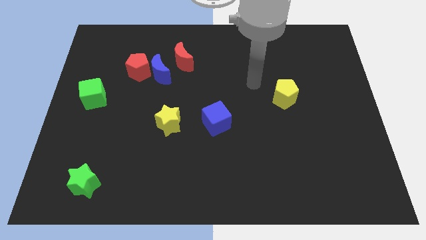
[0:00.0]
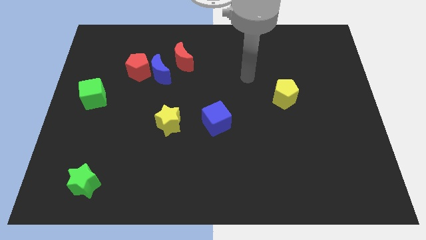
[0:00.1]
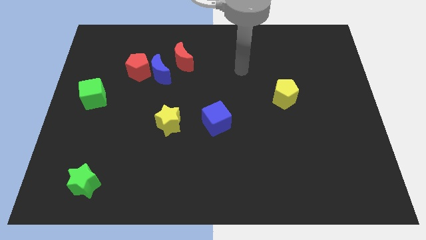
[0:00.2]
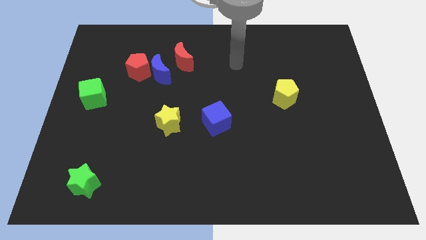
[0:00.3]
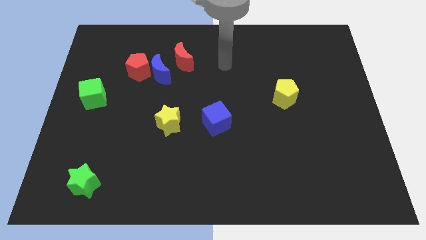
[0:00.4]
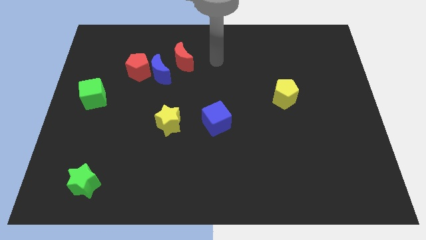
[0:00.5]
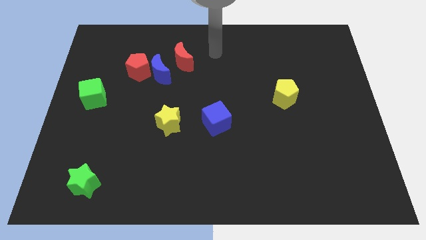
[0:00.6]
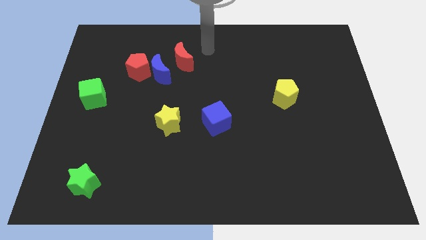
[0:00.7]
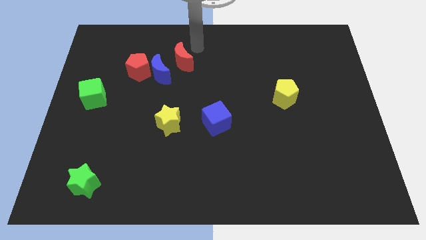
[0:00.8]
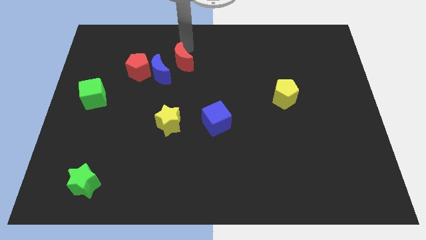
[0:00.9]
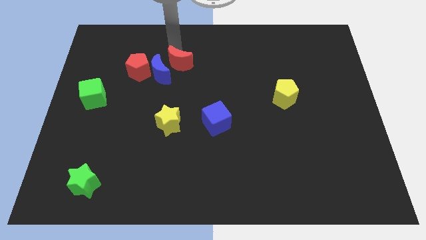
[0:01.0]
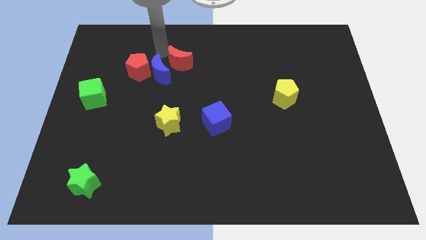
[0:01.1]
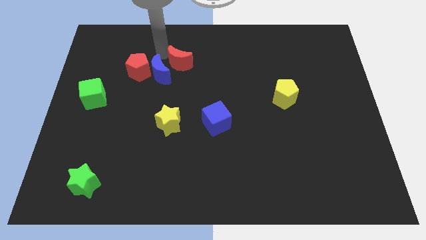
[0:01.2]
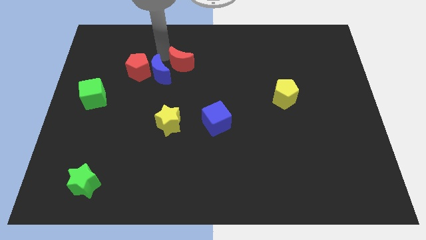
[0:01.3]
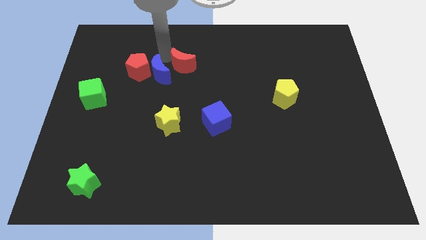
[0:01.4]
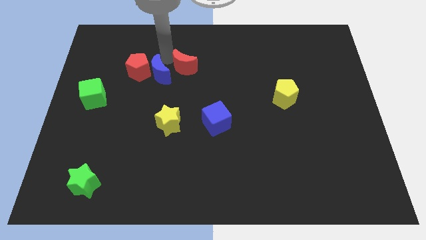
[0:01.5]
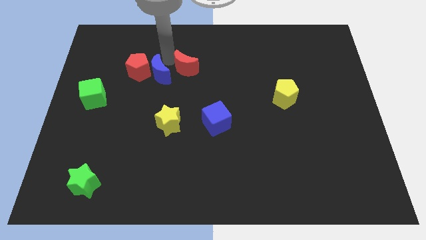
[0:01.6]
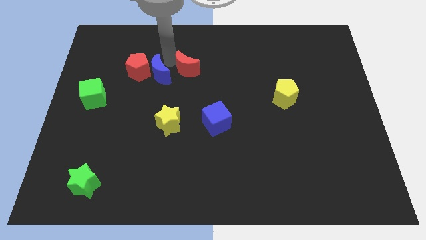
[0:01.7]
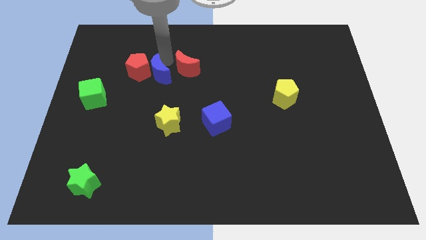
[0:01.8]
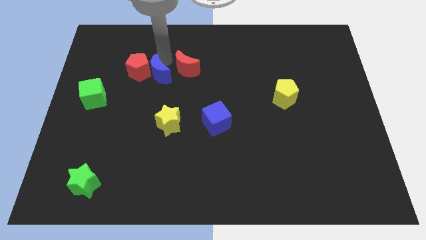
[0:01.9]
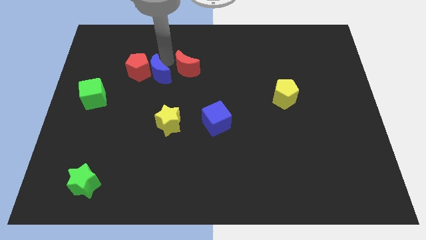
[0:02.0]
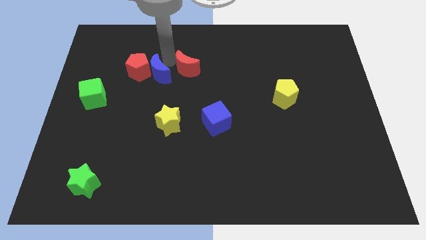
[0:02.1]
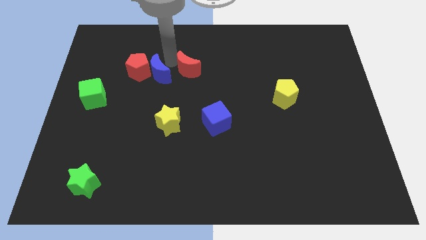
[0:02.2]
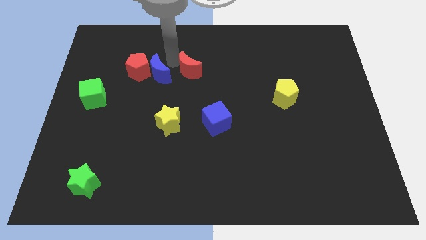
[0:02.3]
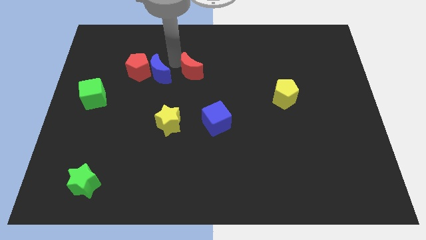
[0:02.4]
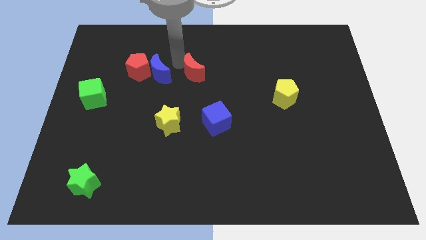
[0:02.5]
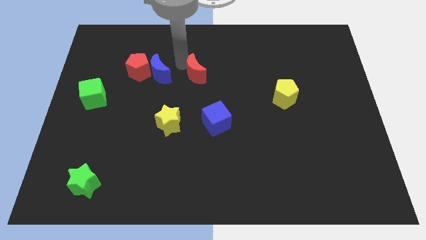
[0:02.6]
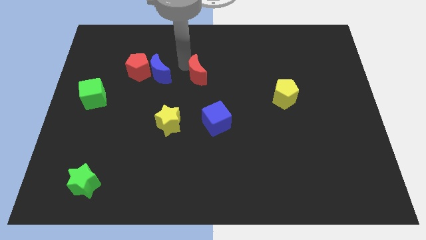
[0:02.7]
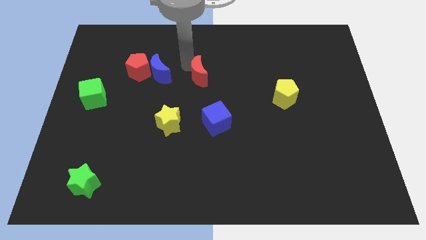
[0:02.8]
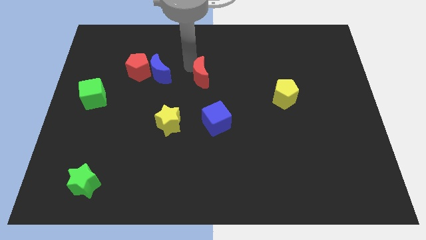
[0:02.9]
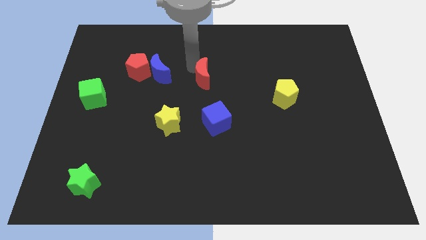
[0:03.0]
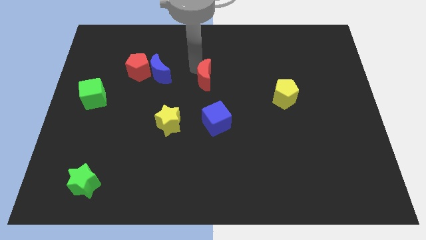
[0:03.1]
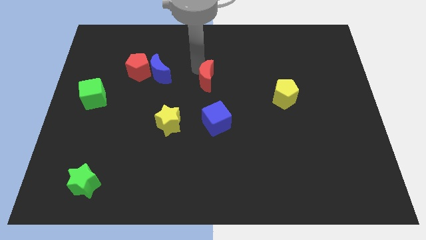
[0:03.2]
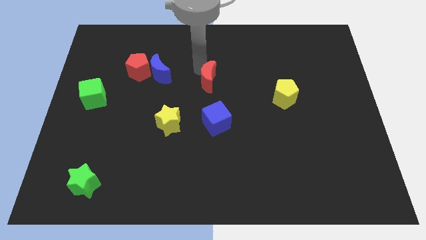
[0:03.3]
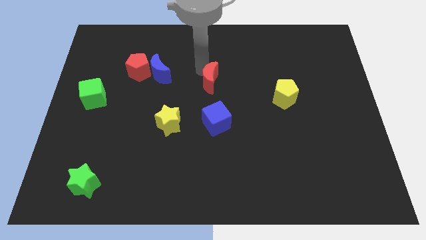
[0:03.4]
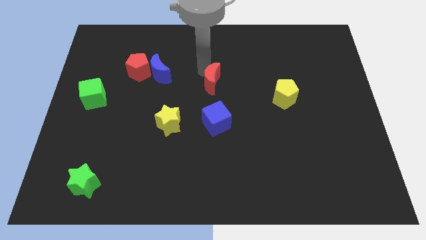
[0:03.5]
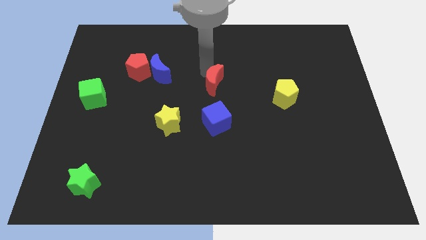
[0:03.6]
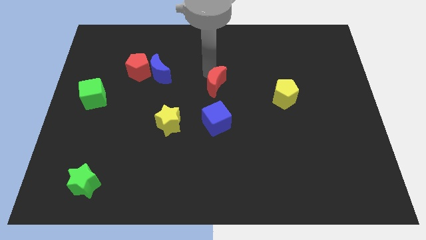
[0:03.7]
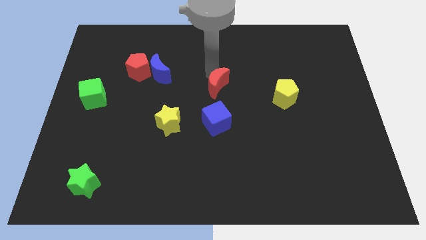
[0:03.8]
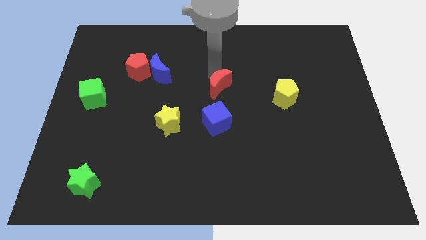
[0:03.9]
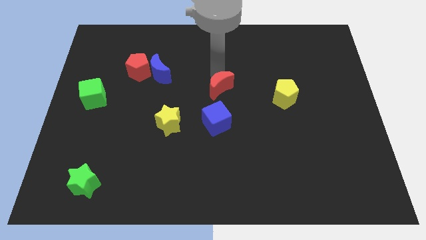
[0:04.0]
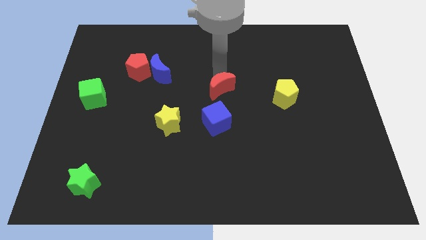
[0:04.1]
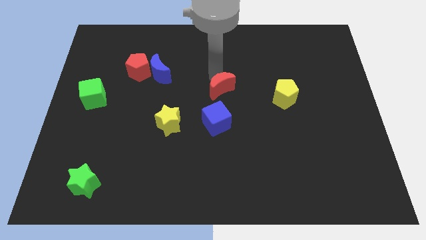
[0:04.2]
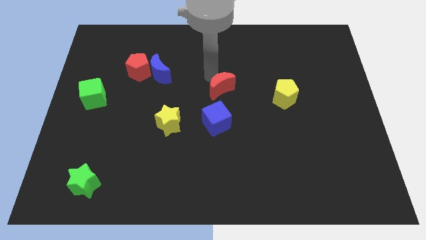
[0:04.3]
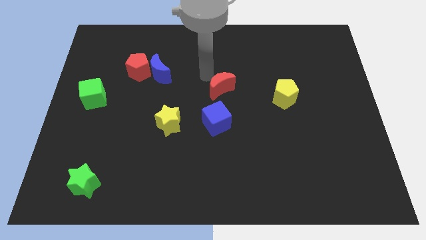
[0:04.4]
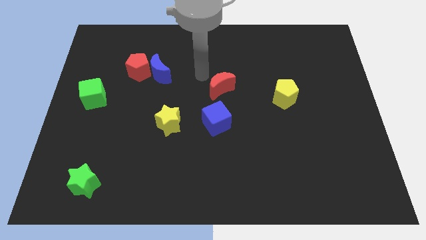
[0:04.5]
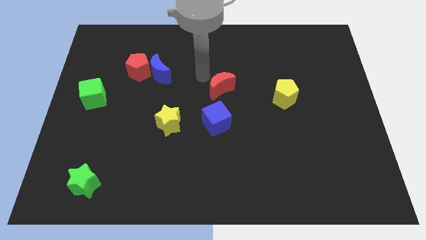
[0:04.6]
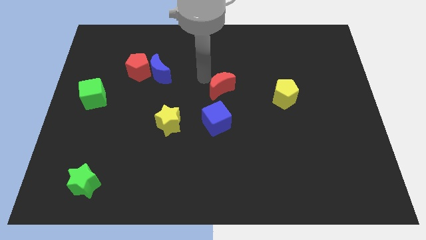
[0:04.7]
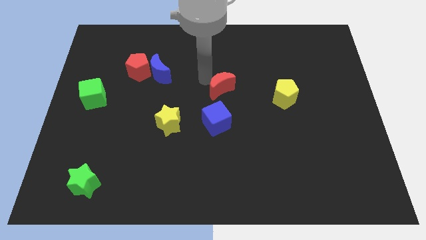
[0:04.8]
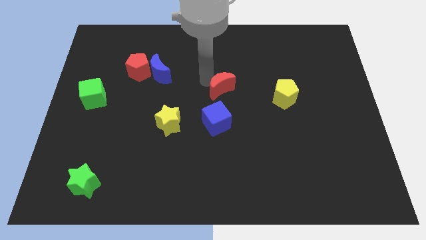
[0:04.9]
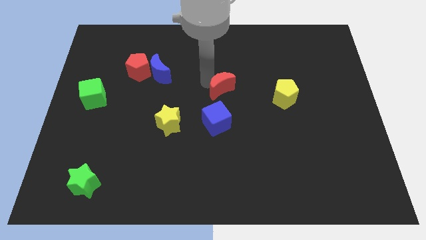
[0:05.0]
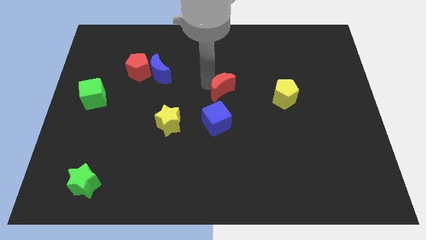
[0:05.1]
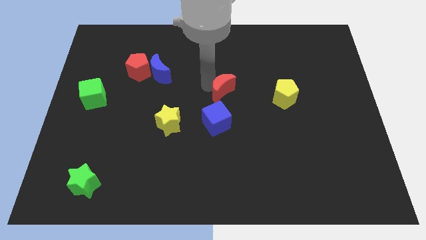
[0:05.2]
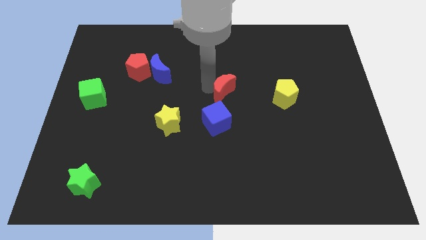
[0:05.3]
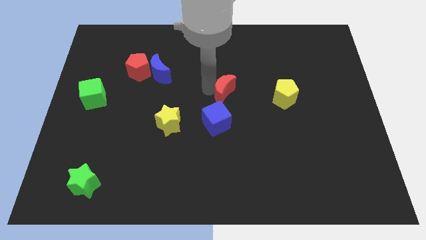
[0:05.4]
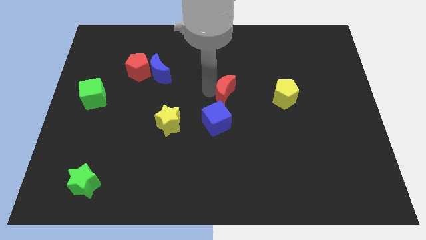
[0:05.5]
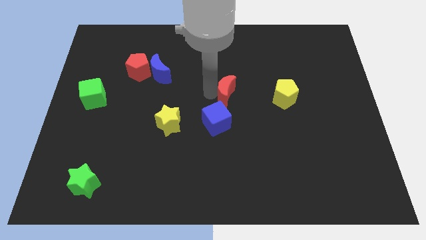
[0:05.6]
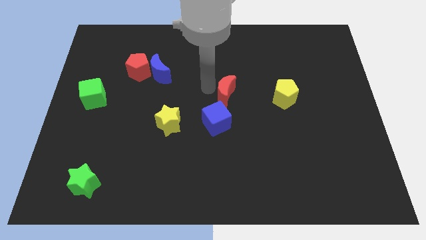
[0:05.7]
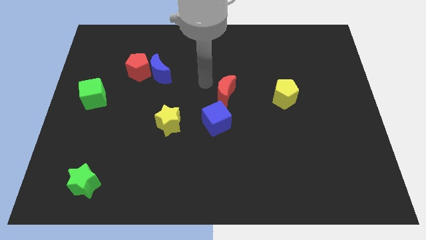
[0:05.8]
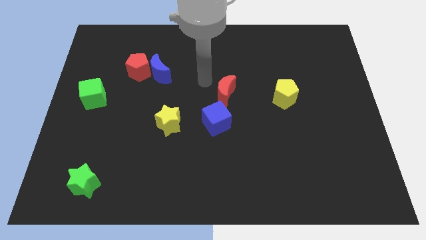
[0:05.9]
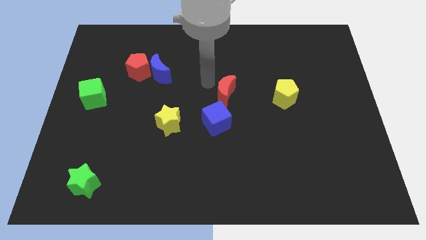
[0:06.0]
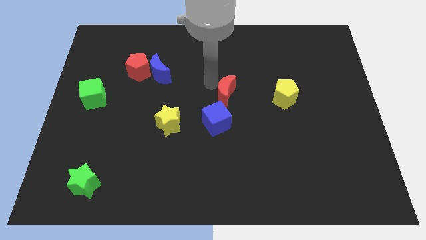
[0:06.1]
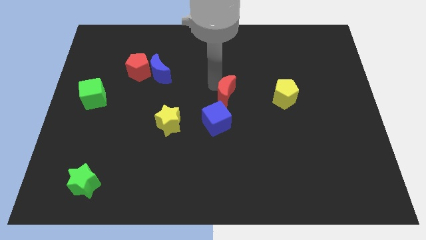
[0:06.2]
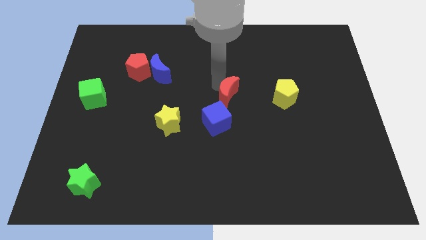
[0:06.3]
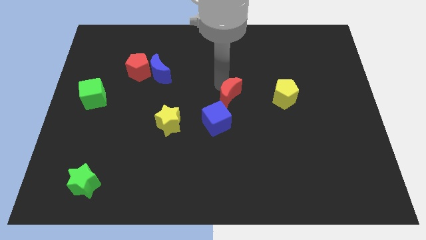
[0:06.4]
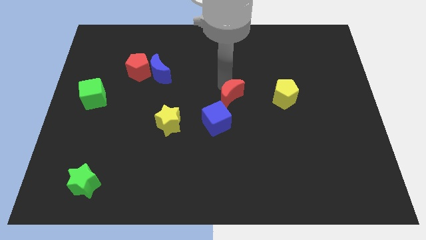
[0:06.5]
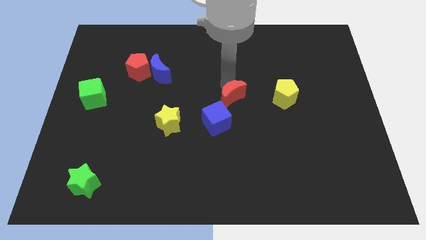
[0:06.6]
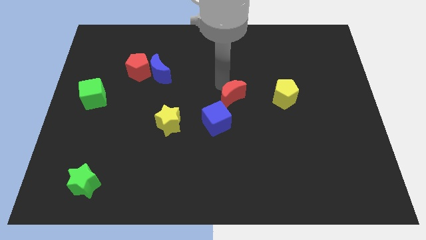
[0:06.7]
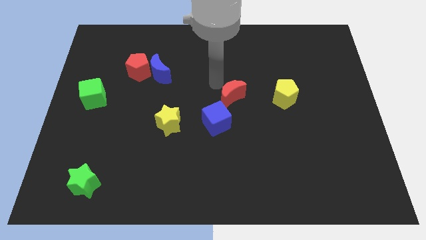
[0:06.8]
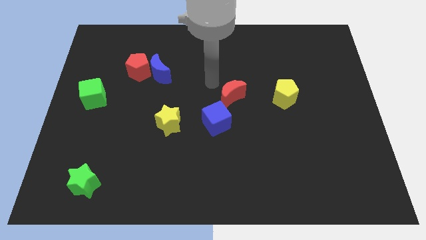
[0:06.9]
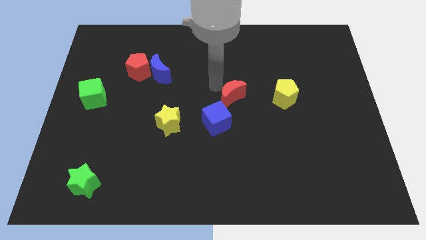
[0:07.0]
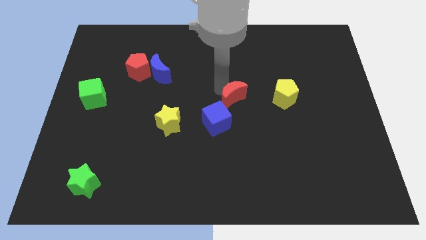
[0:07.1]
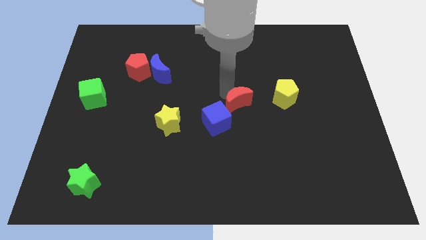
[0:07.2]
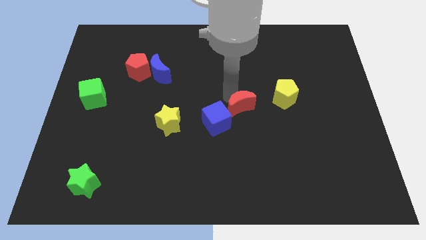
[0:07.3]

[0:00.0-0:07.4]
push the red moon down and to the right diagonally
